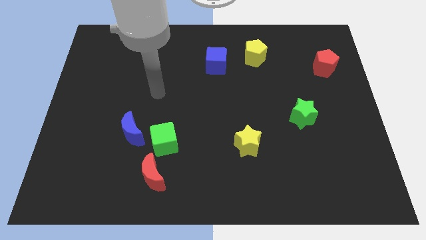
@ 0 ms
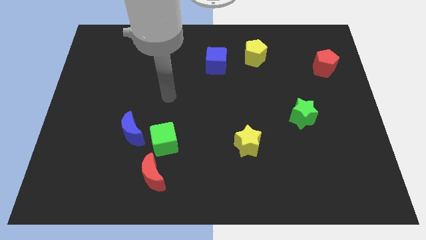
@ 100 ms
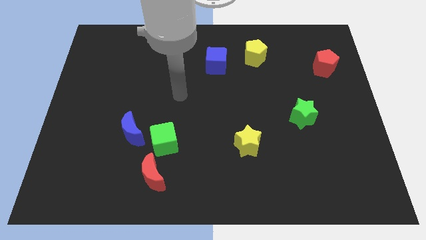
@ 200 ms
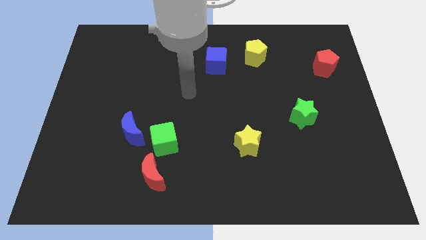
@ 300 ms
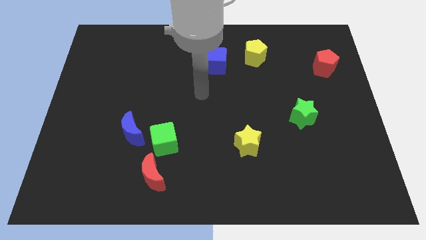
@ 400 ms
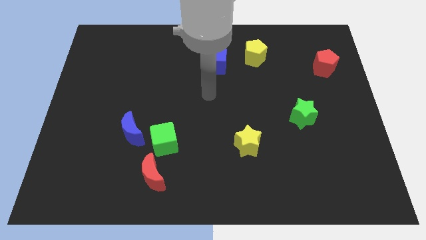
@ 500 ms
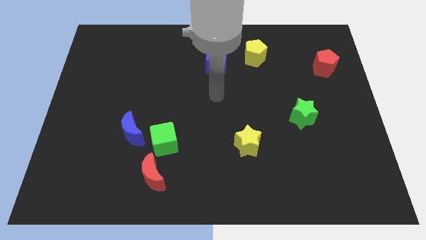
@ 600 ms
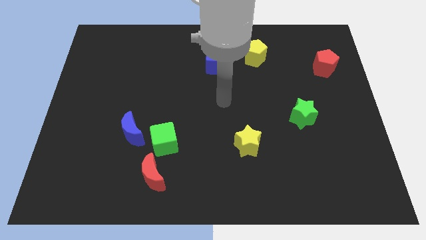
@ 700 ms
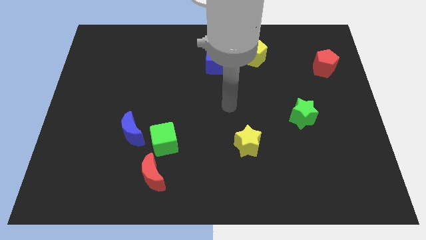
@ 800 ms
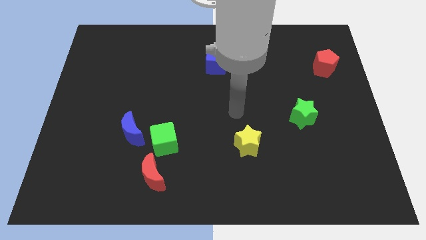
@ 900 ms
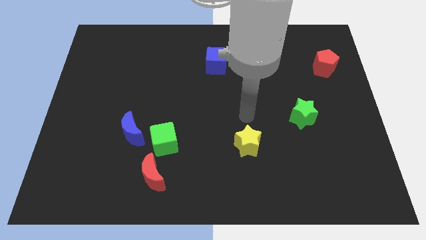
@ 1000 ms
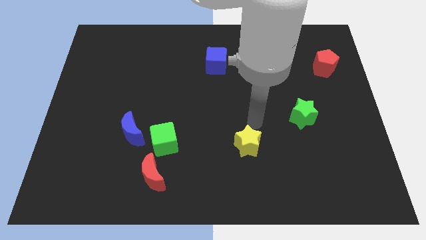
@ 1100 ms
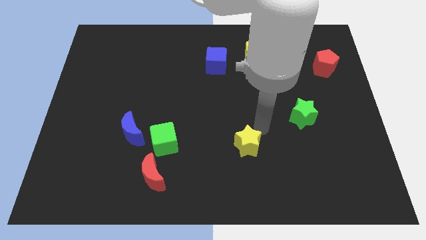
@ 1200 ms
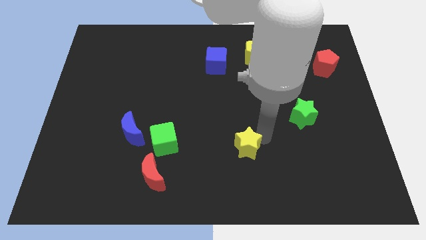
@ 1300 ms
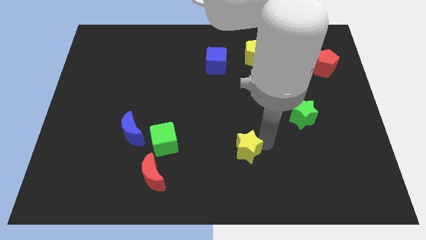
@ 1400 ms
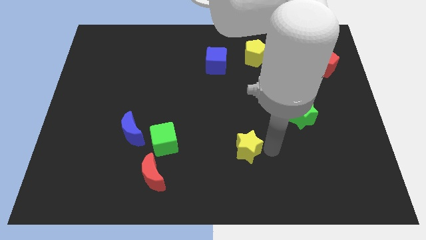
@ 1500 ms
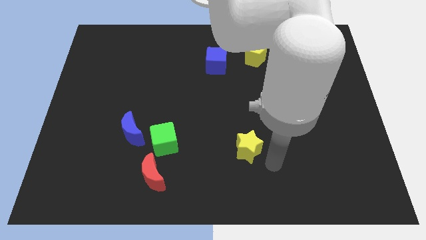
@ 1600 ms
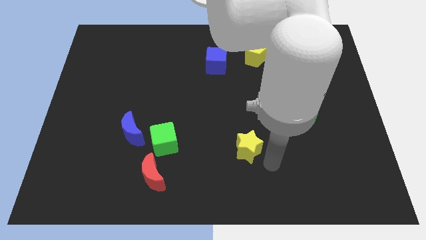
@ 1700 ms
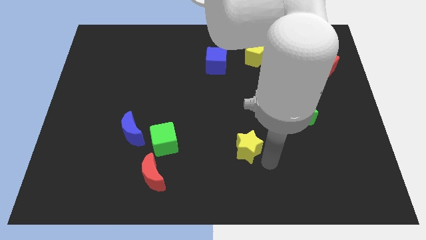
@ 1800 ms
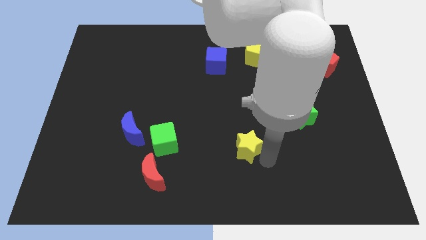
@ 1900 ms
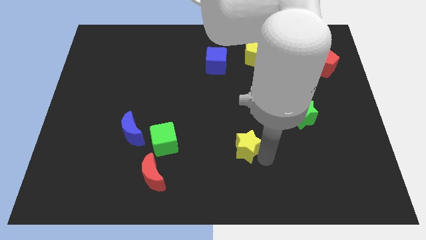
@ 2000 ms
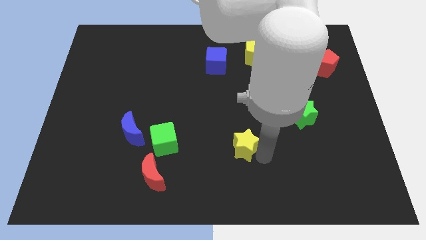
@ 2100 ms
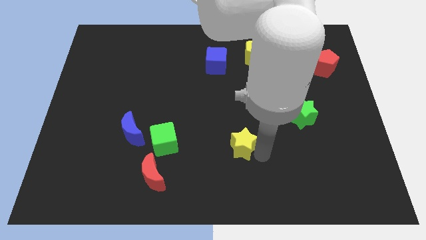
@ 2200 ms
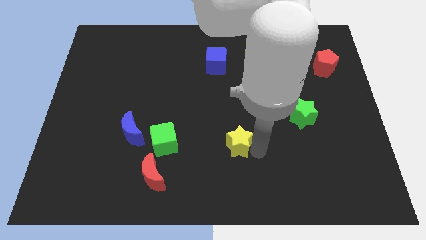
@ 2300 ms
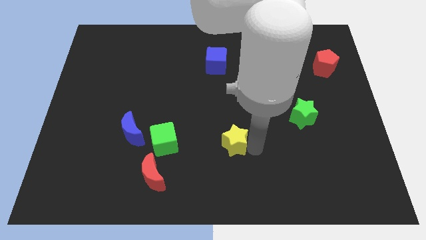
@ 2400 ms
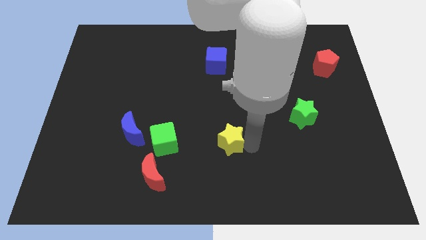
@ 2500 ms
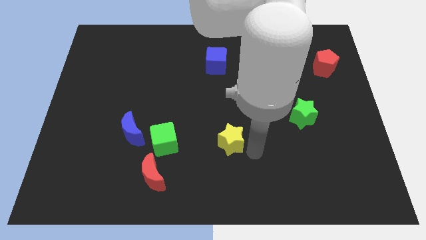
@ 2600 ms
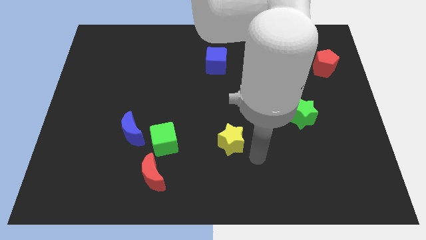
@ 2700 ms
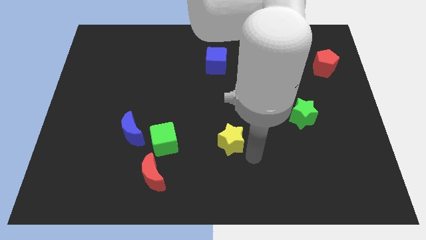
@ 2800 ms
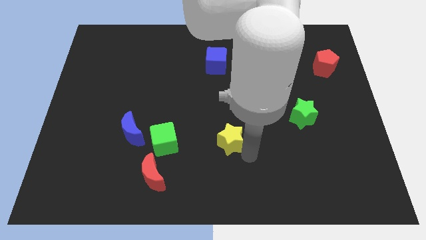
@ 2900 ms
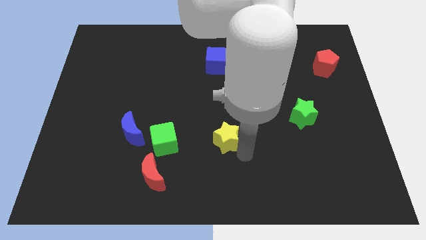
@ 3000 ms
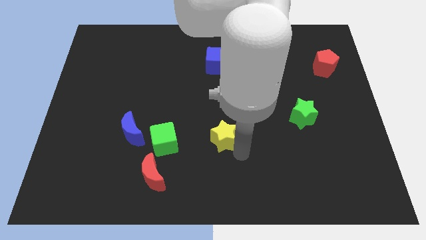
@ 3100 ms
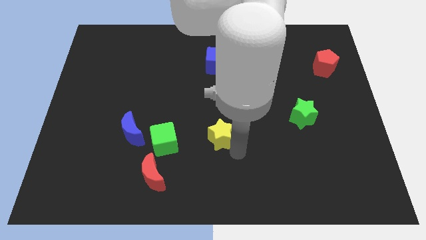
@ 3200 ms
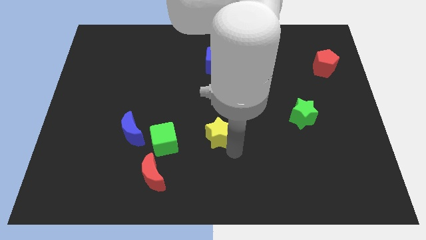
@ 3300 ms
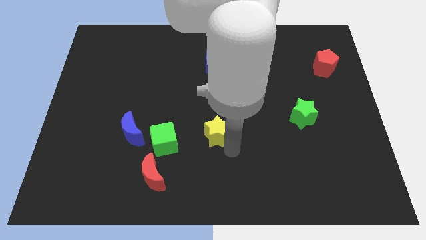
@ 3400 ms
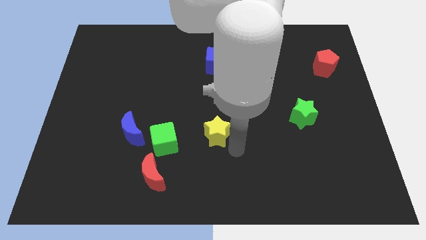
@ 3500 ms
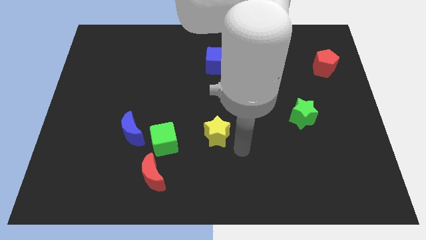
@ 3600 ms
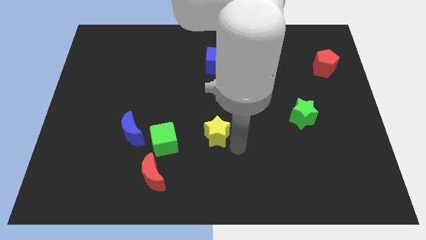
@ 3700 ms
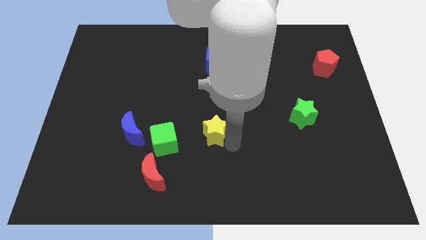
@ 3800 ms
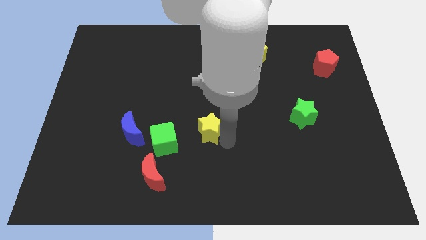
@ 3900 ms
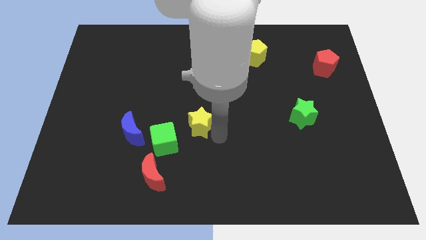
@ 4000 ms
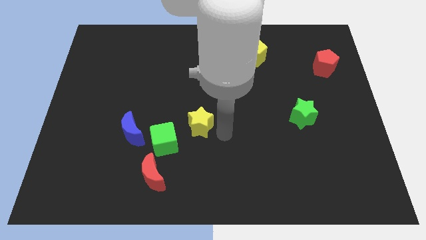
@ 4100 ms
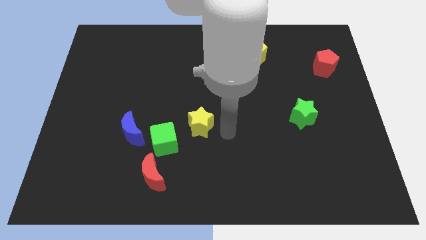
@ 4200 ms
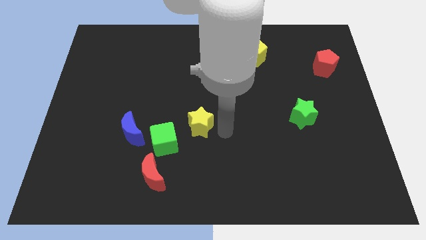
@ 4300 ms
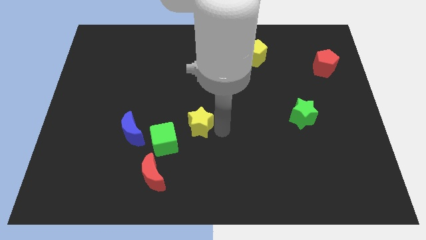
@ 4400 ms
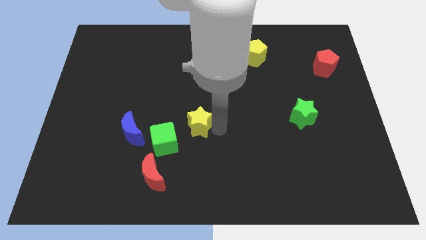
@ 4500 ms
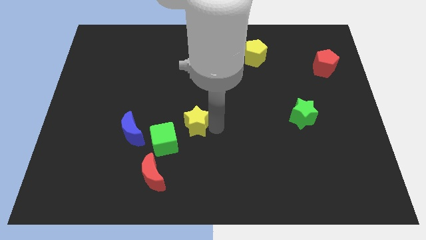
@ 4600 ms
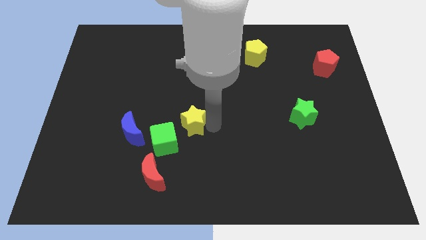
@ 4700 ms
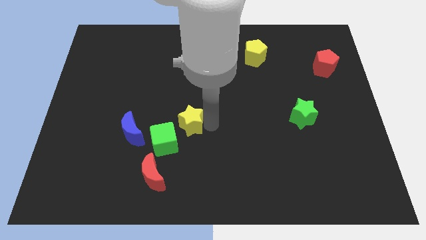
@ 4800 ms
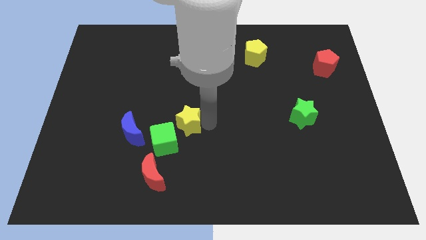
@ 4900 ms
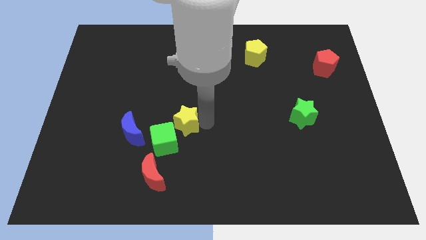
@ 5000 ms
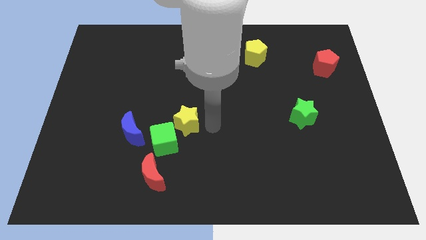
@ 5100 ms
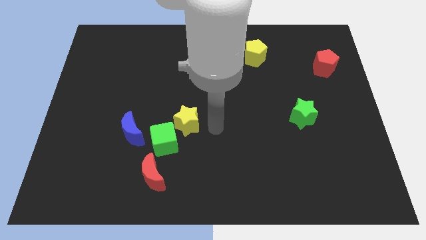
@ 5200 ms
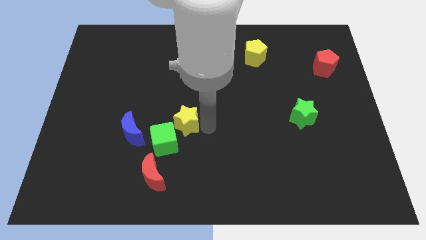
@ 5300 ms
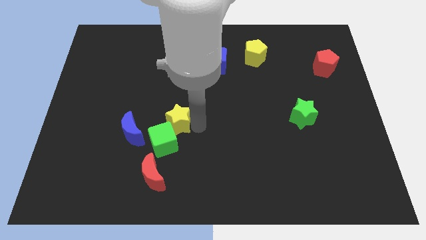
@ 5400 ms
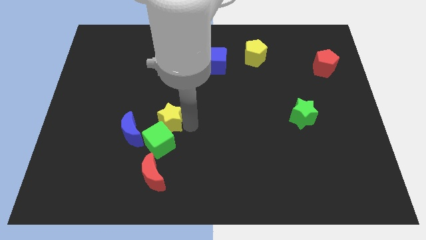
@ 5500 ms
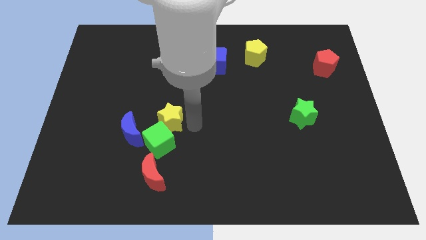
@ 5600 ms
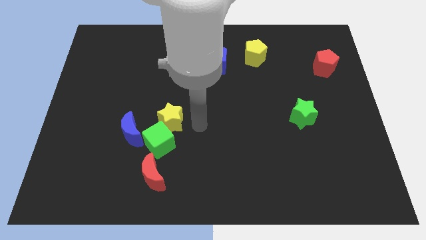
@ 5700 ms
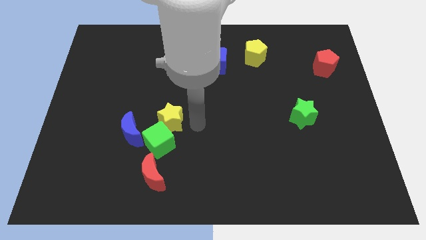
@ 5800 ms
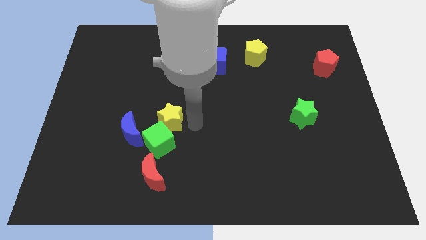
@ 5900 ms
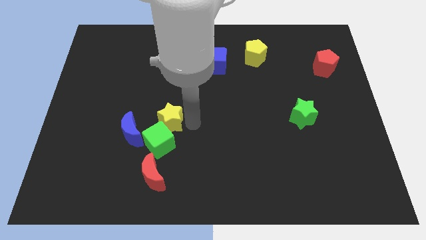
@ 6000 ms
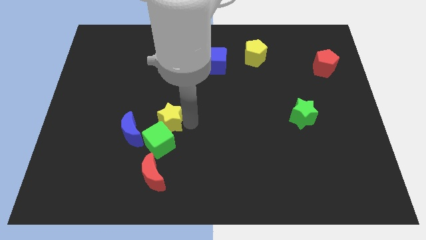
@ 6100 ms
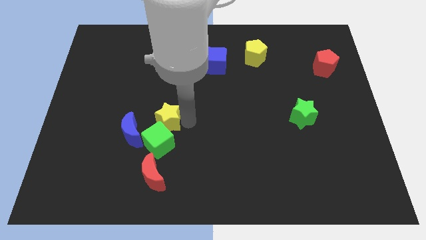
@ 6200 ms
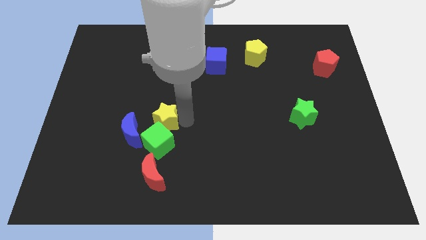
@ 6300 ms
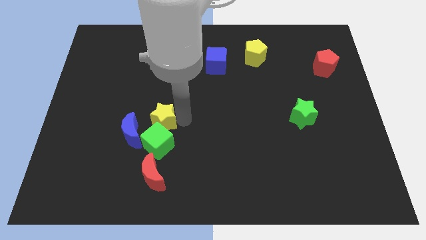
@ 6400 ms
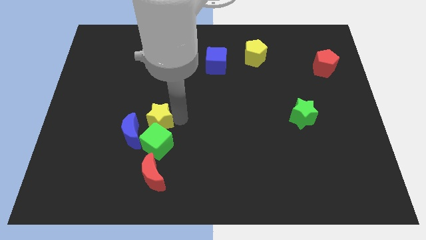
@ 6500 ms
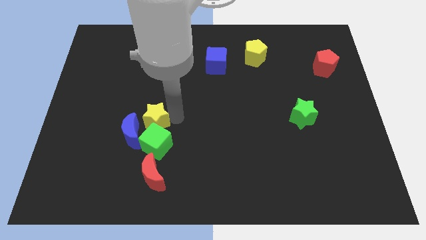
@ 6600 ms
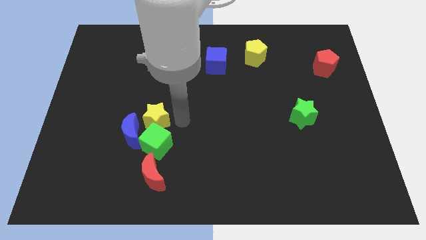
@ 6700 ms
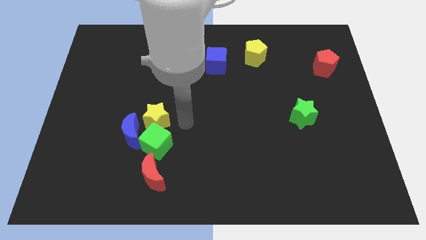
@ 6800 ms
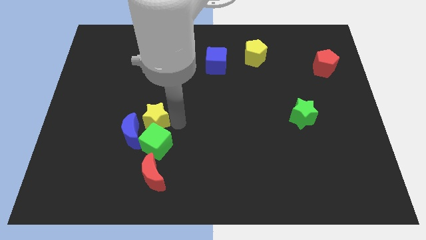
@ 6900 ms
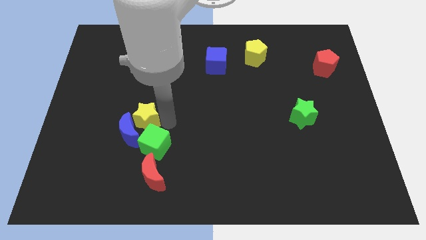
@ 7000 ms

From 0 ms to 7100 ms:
push the yellow star to the left

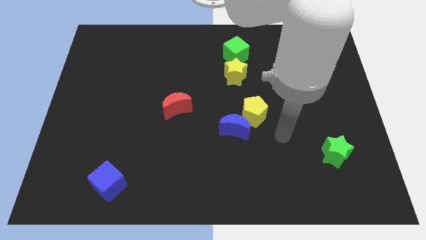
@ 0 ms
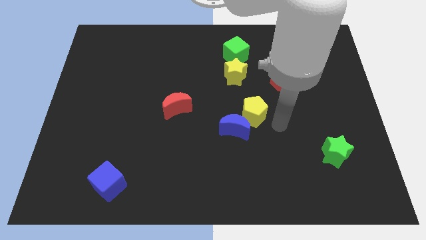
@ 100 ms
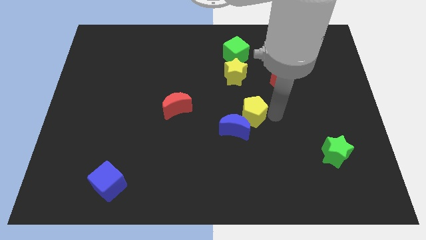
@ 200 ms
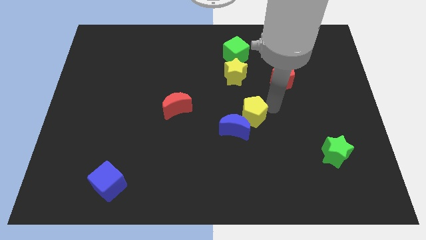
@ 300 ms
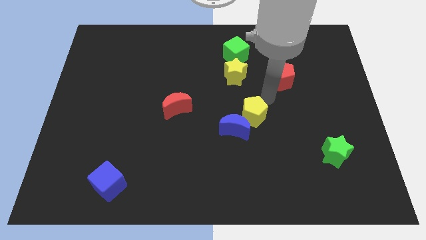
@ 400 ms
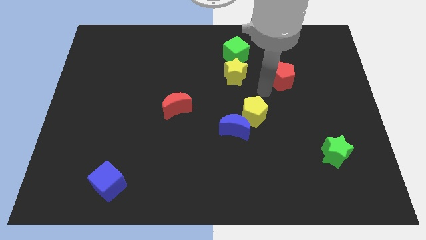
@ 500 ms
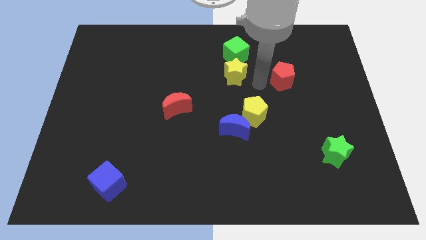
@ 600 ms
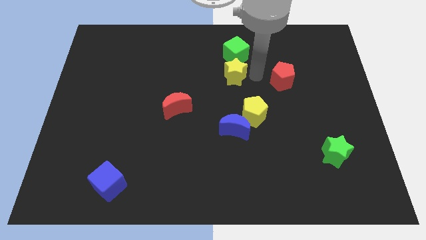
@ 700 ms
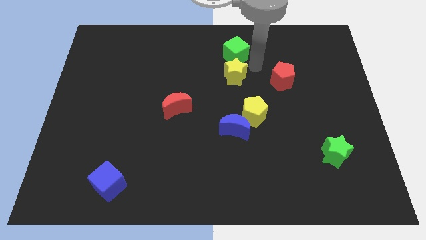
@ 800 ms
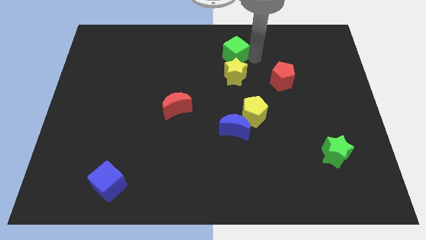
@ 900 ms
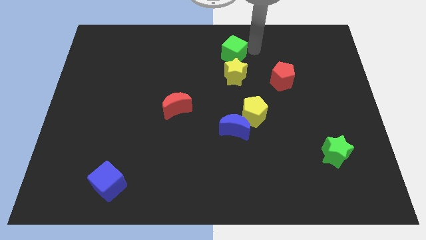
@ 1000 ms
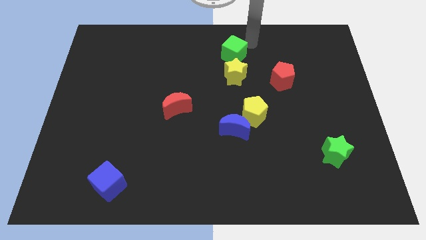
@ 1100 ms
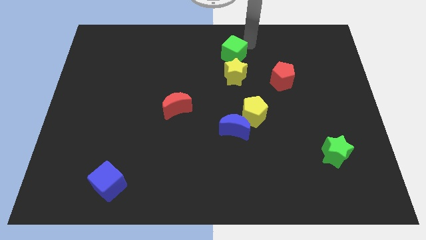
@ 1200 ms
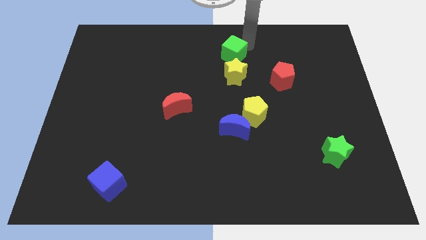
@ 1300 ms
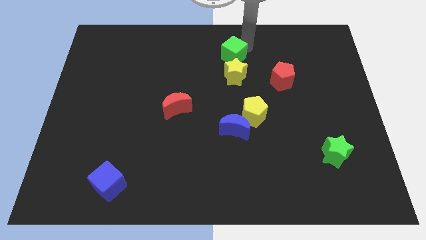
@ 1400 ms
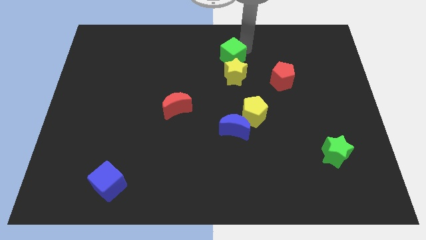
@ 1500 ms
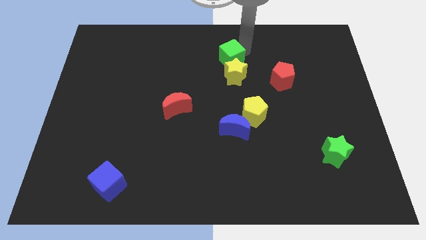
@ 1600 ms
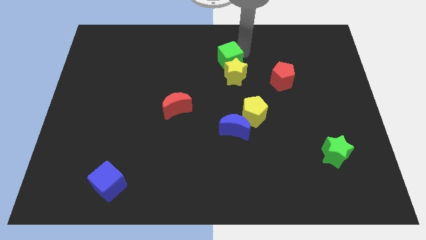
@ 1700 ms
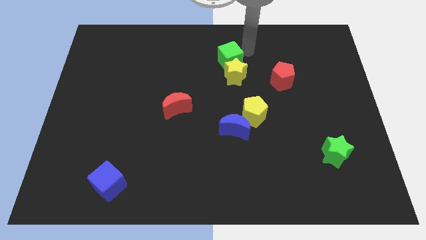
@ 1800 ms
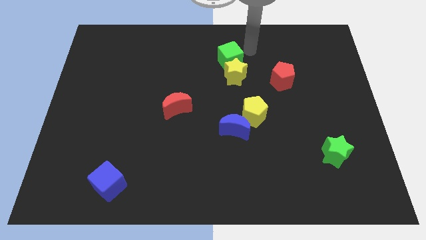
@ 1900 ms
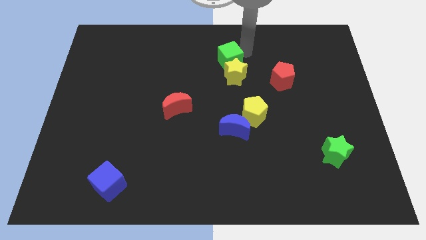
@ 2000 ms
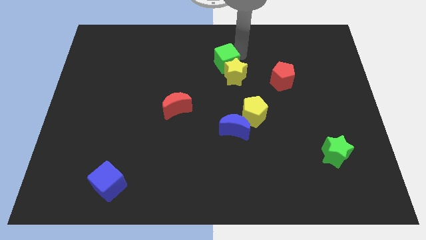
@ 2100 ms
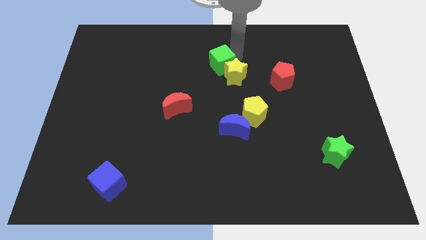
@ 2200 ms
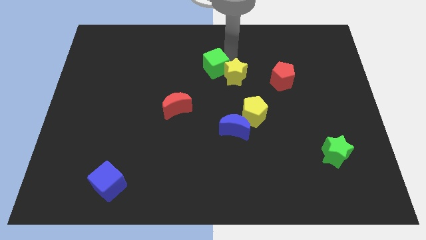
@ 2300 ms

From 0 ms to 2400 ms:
slide the green cube slightly downwards and then left
